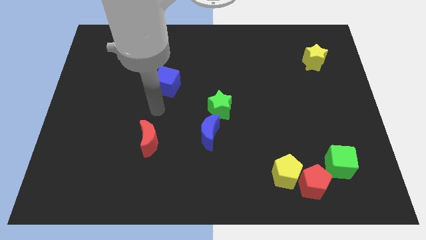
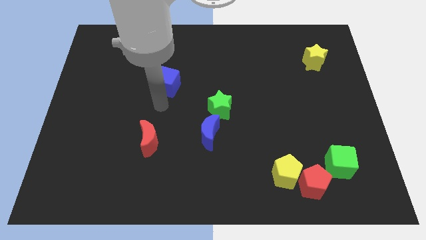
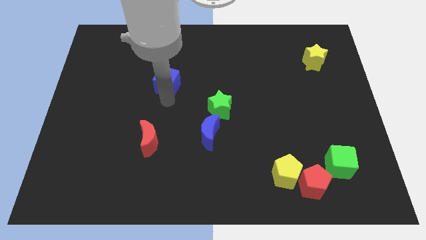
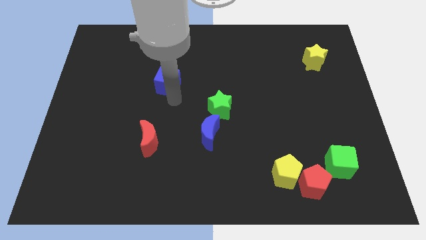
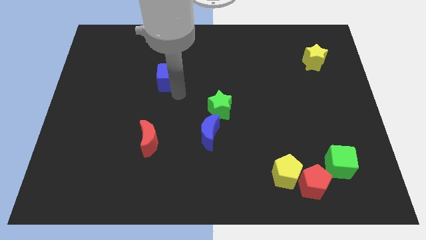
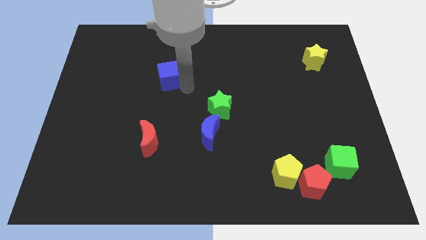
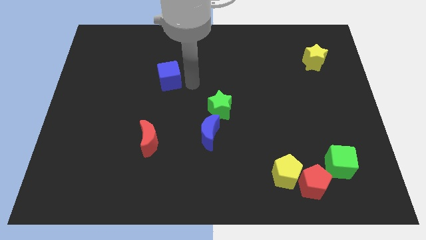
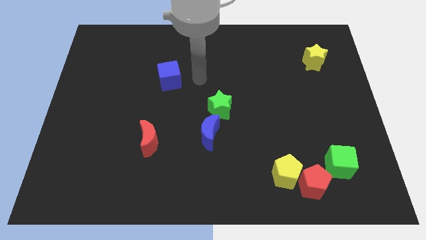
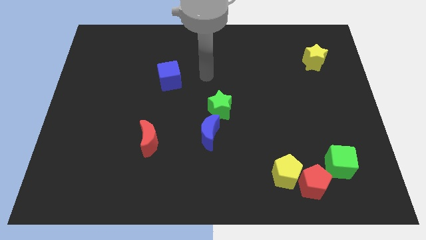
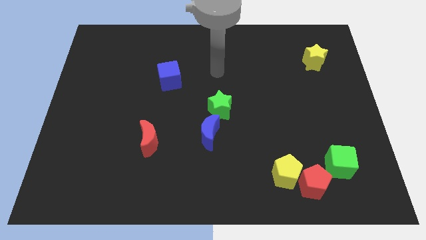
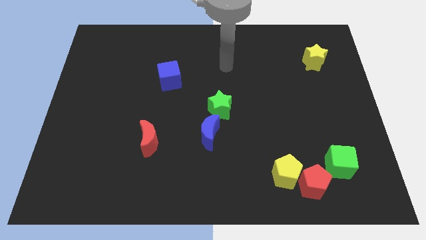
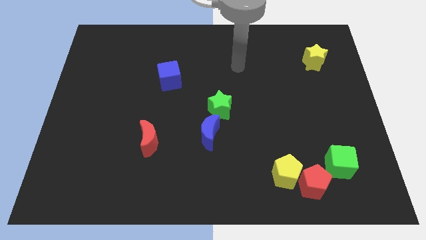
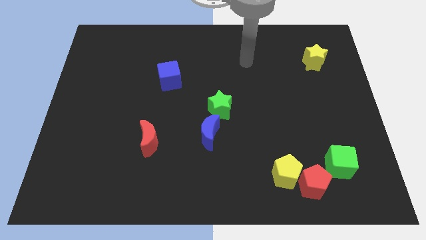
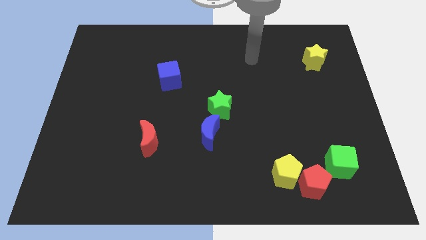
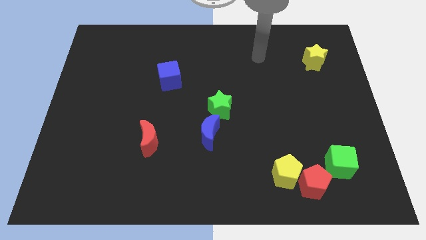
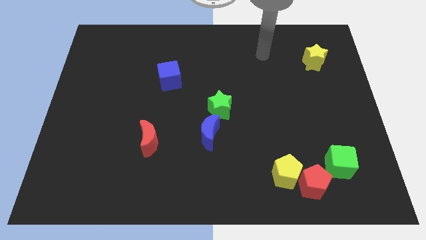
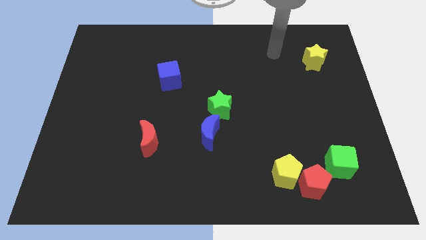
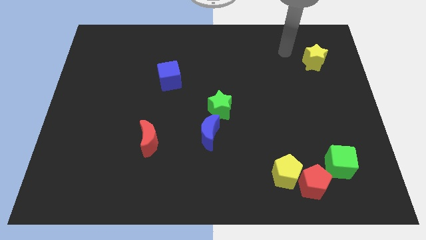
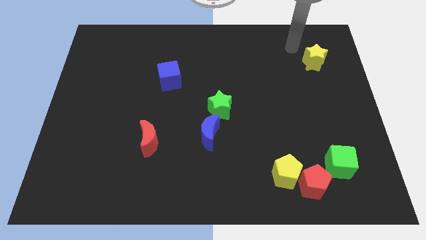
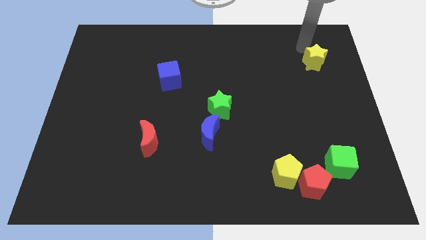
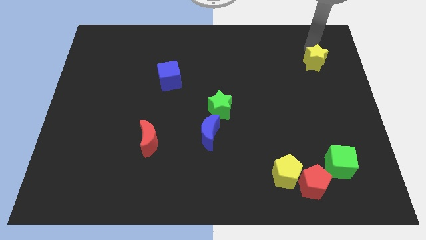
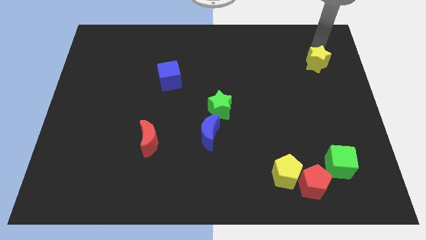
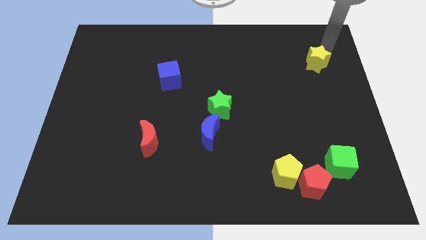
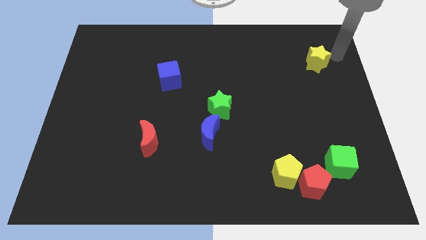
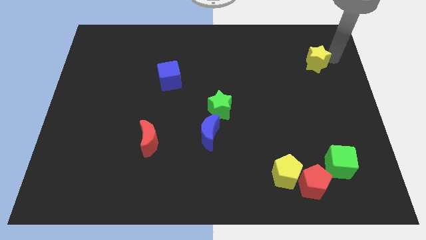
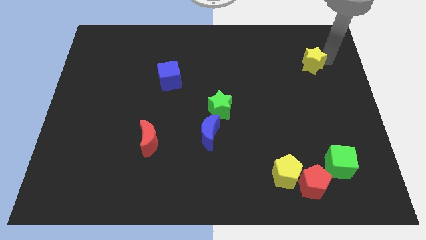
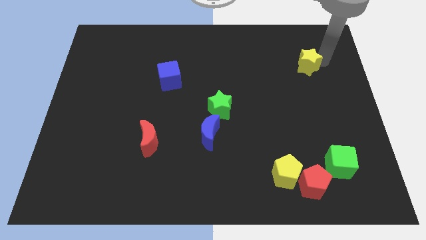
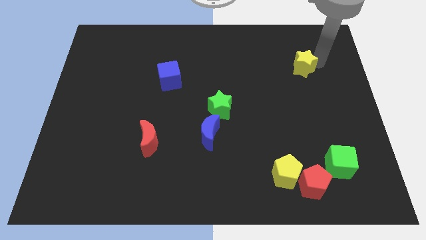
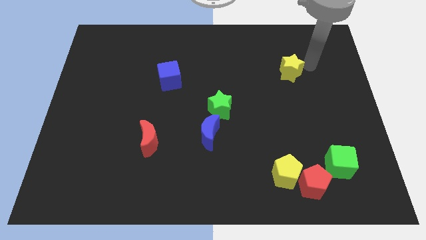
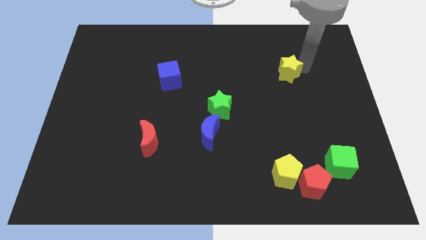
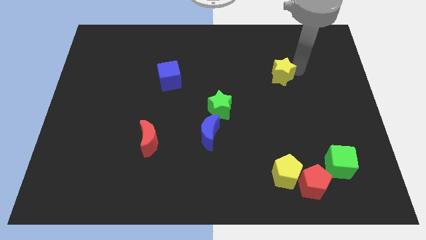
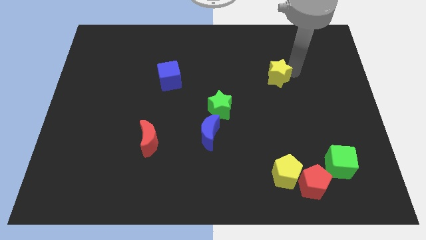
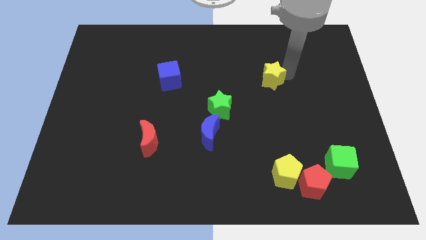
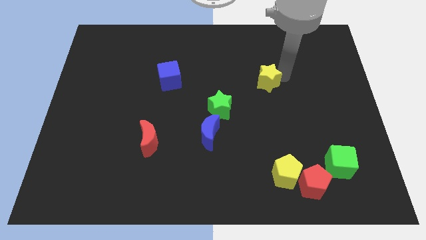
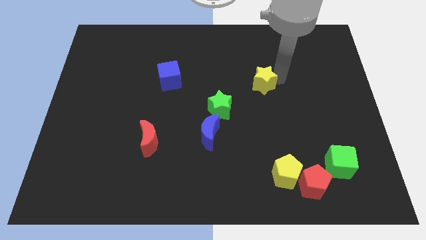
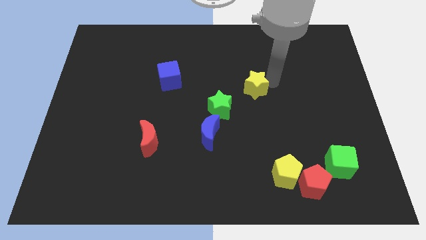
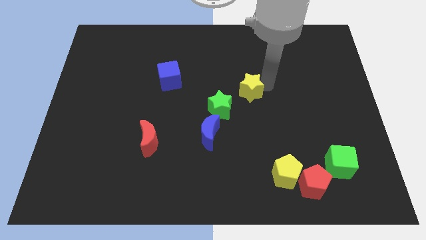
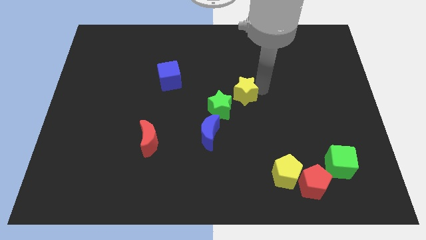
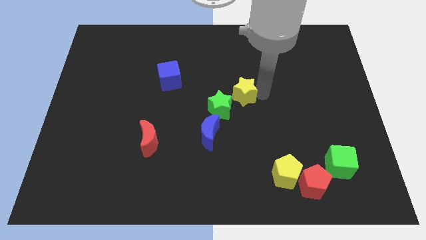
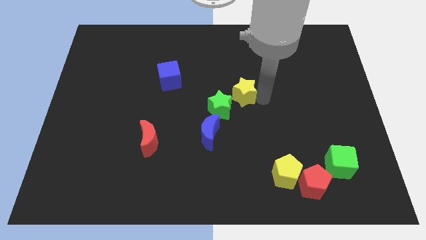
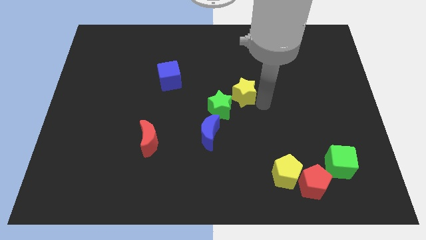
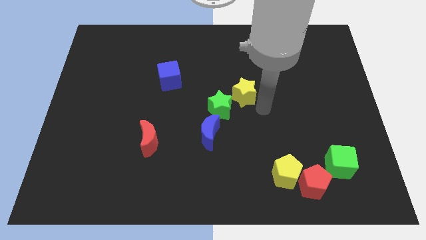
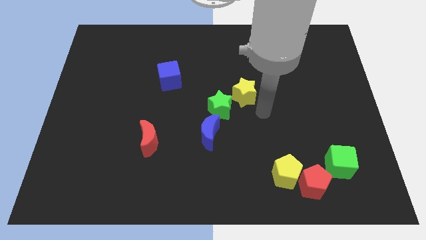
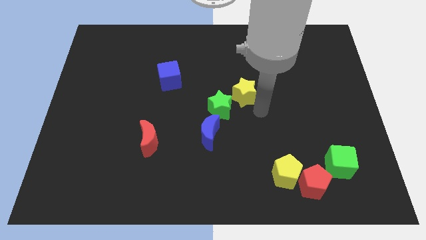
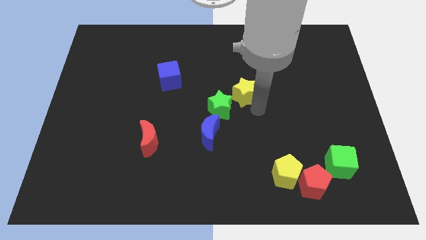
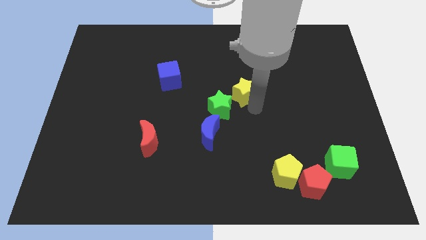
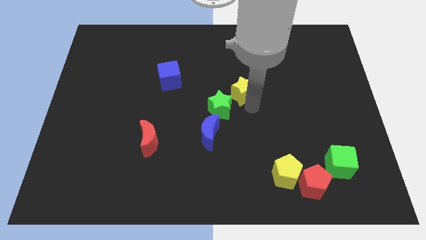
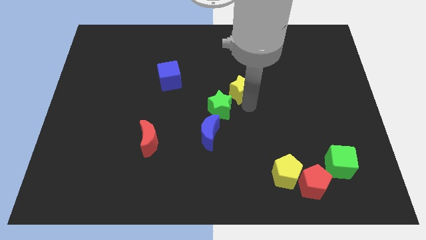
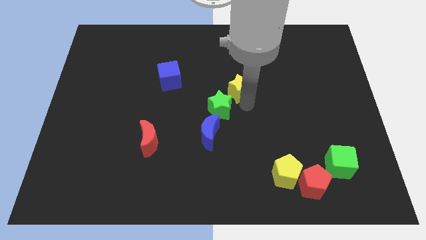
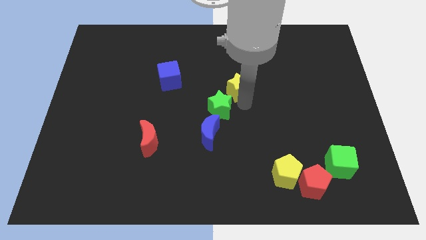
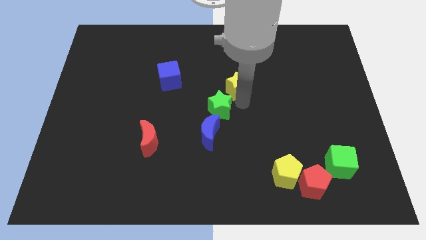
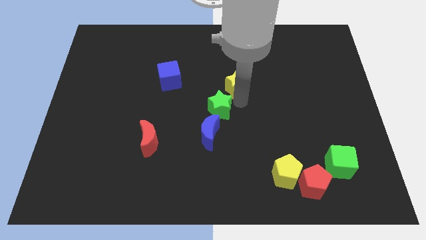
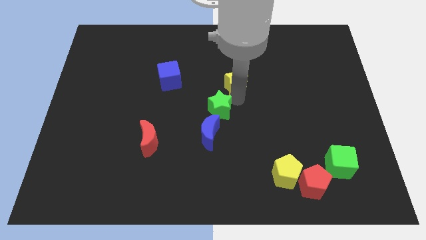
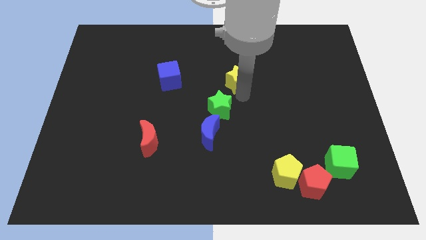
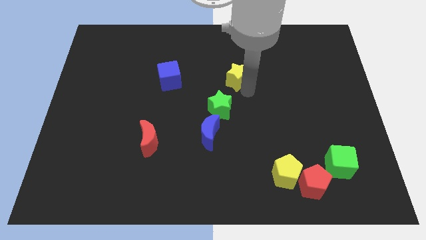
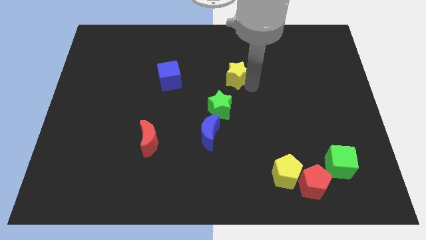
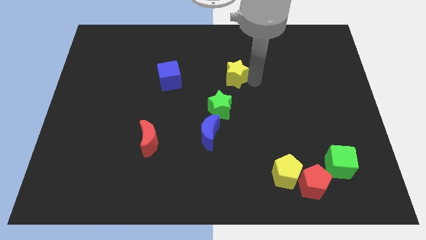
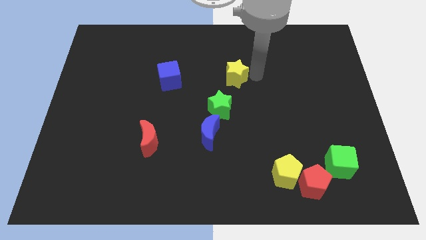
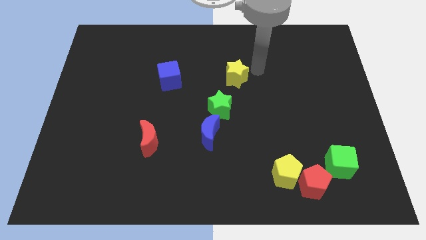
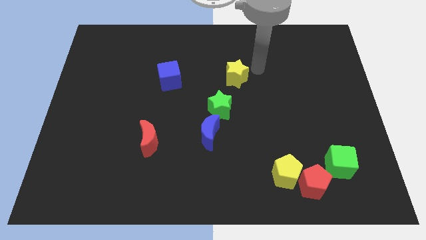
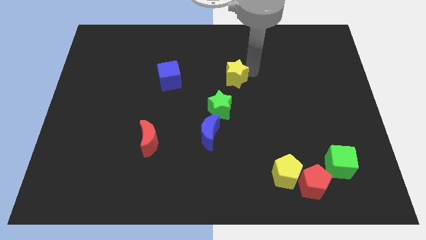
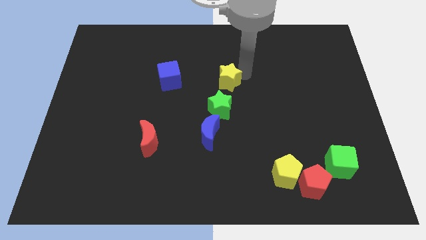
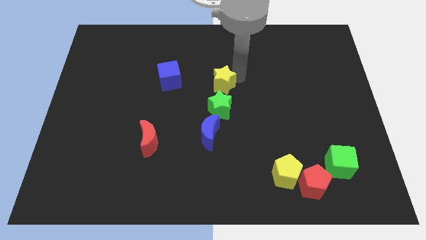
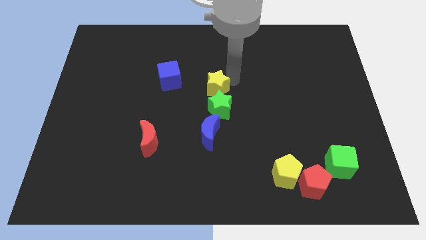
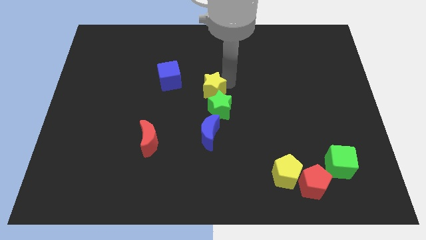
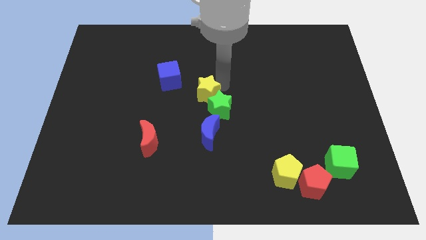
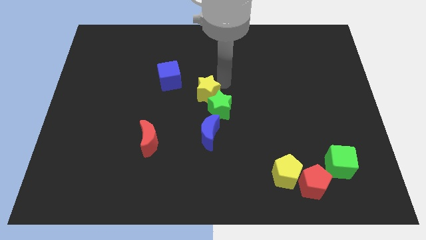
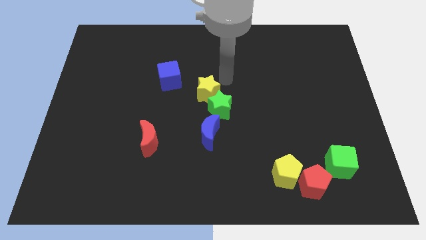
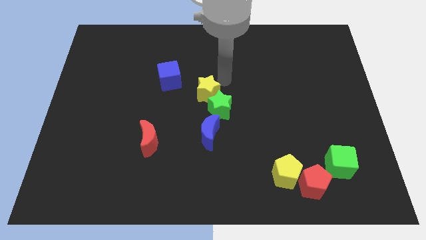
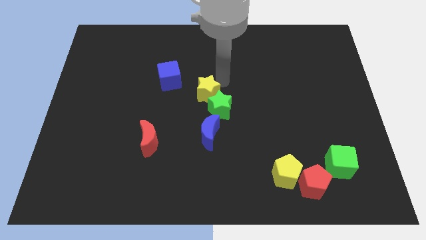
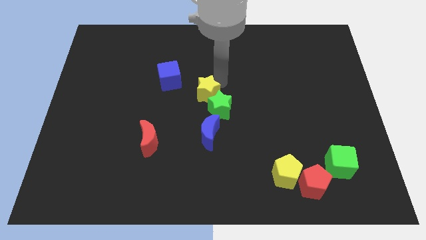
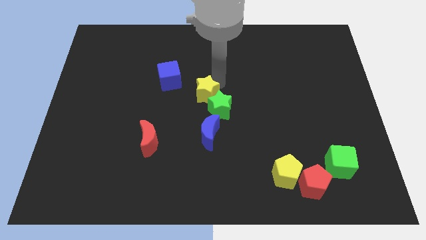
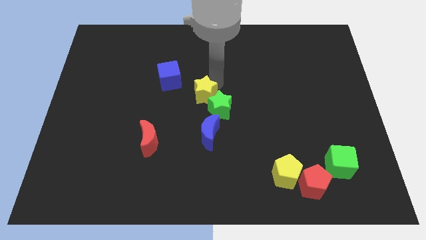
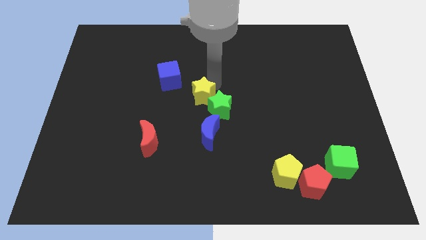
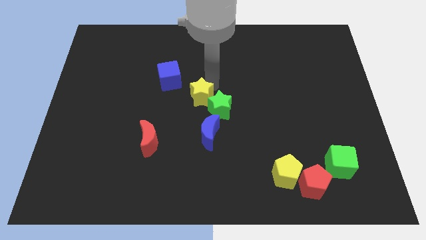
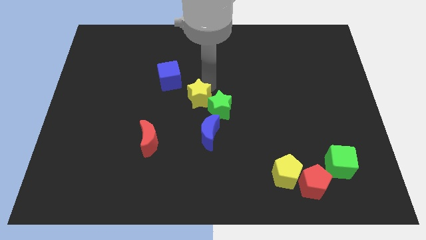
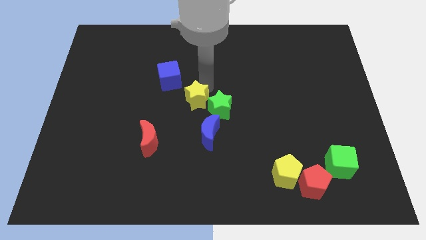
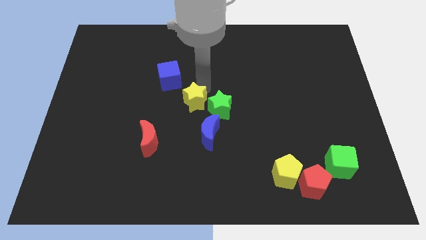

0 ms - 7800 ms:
slide the yellow star to the top left side of the blue moon
